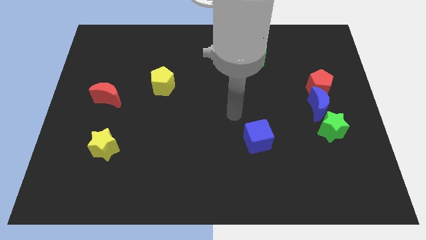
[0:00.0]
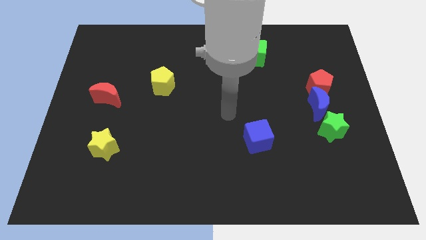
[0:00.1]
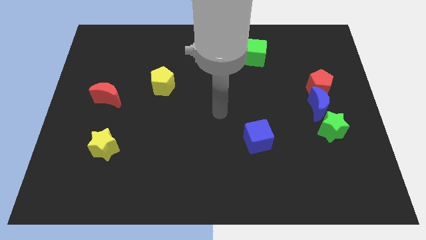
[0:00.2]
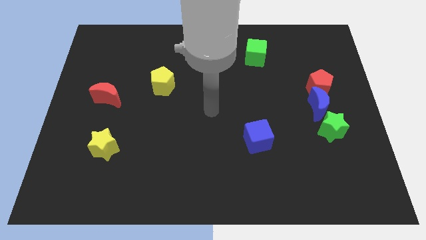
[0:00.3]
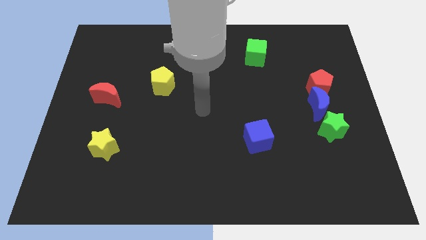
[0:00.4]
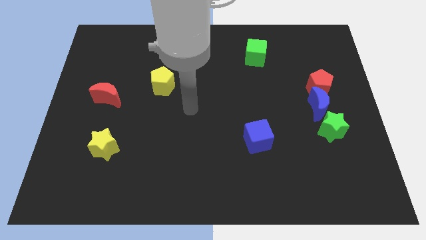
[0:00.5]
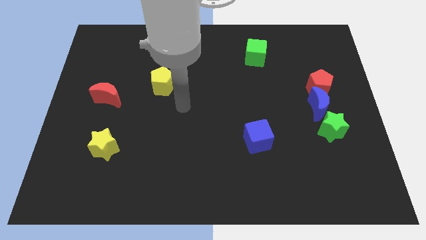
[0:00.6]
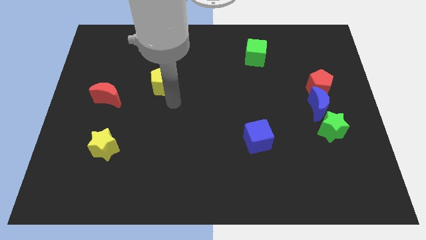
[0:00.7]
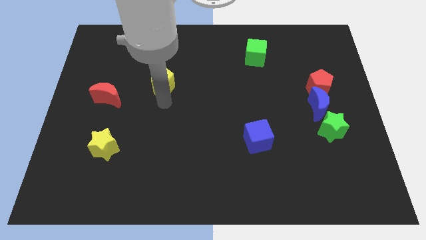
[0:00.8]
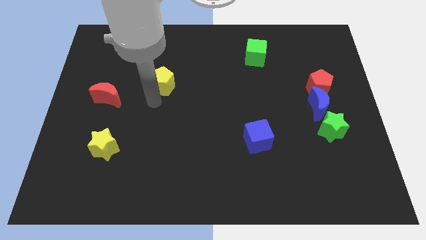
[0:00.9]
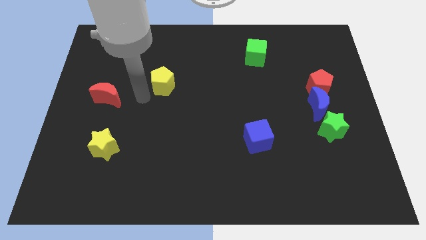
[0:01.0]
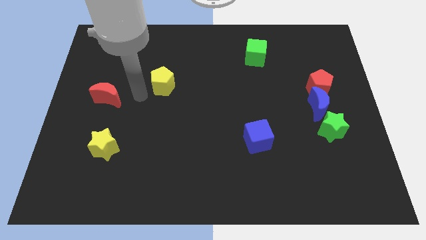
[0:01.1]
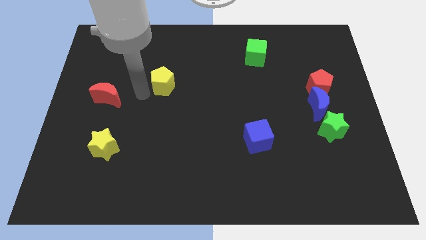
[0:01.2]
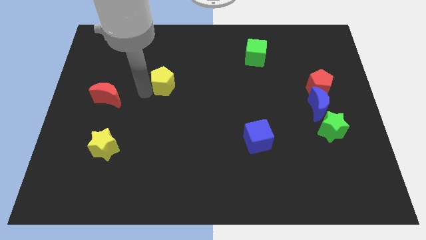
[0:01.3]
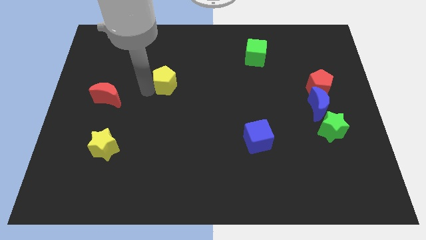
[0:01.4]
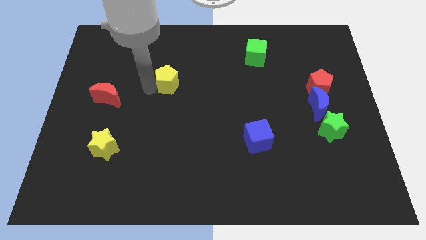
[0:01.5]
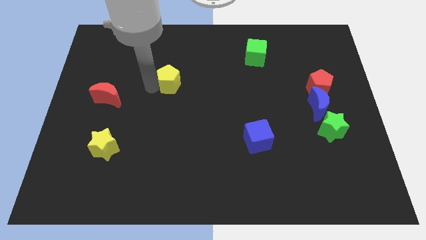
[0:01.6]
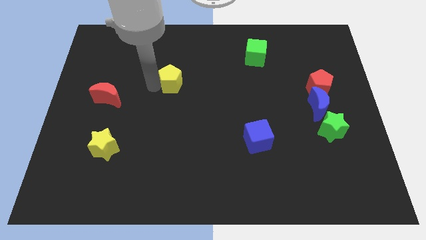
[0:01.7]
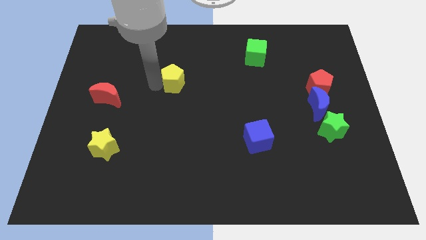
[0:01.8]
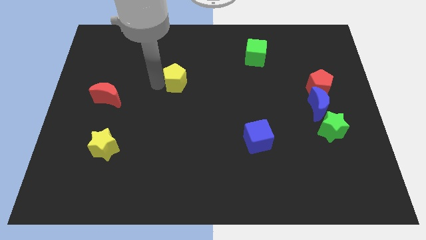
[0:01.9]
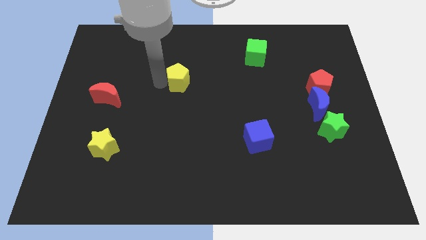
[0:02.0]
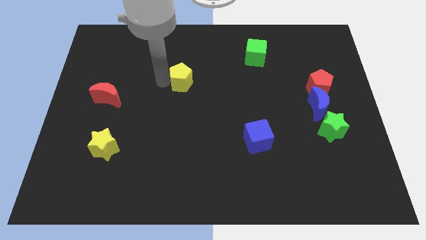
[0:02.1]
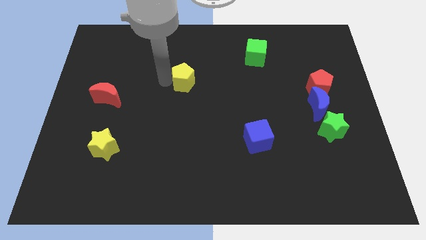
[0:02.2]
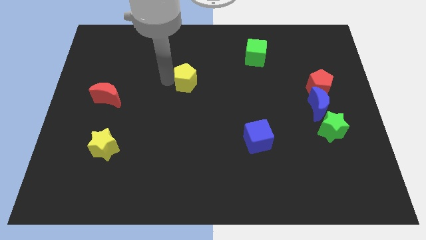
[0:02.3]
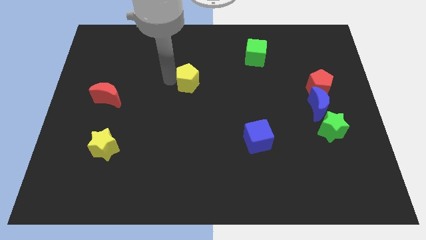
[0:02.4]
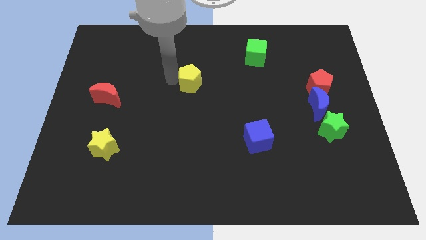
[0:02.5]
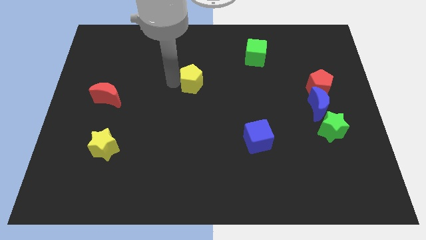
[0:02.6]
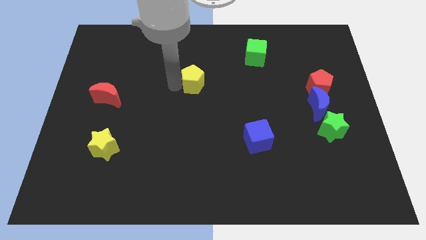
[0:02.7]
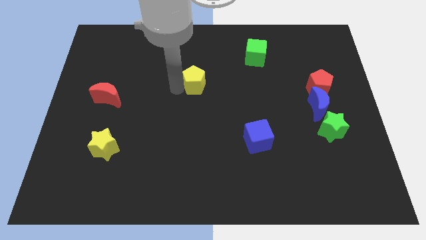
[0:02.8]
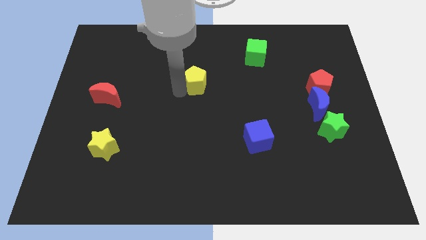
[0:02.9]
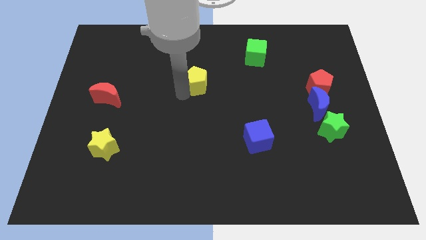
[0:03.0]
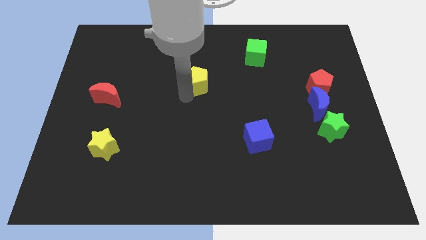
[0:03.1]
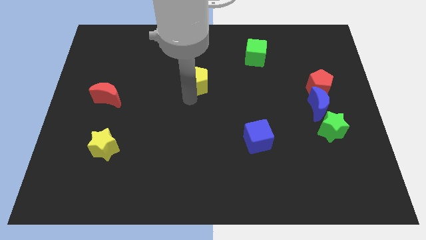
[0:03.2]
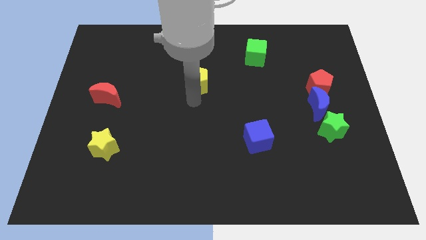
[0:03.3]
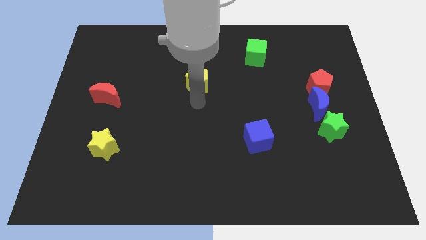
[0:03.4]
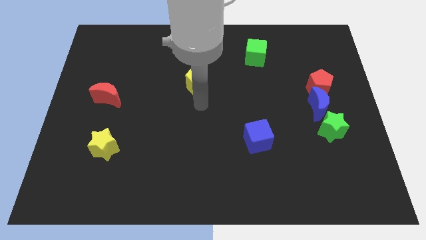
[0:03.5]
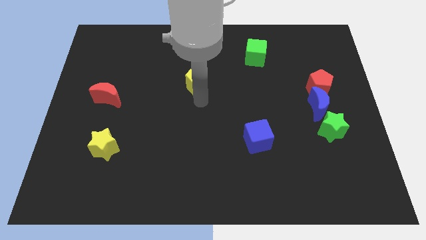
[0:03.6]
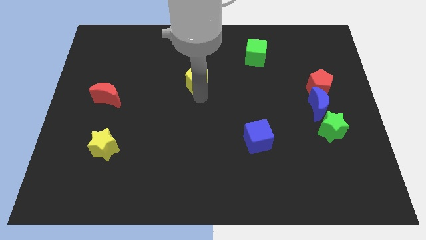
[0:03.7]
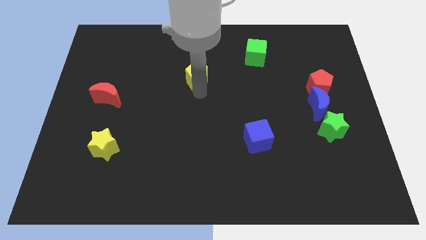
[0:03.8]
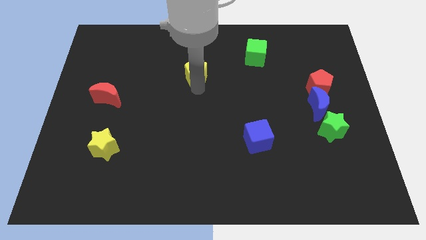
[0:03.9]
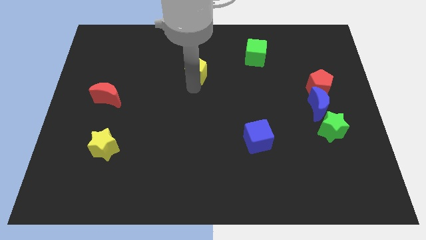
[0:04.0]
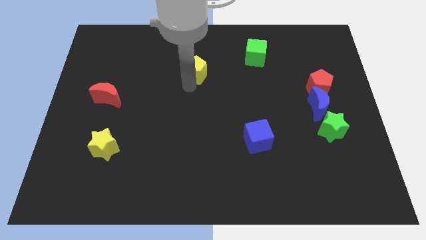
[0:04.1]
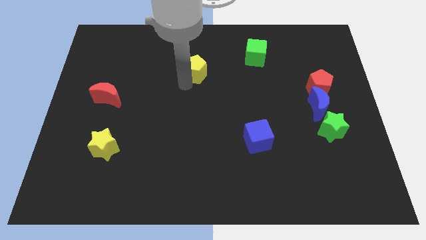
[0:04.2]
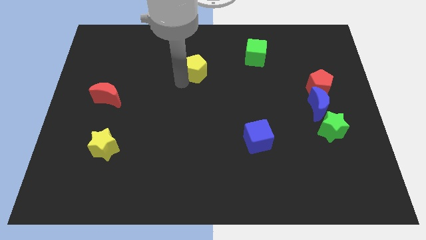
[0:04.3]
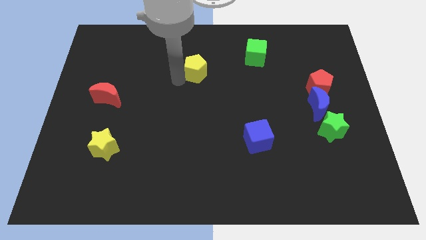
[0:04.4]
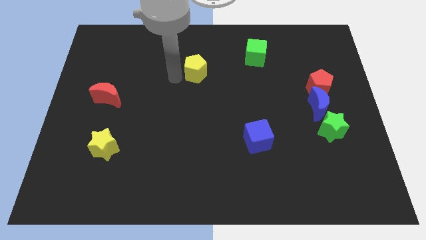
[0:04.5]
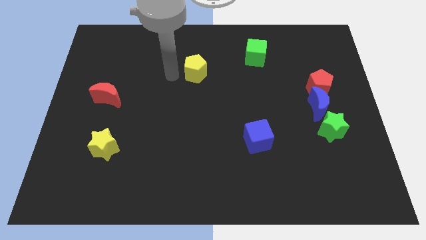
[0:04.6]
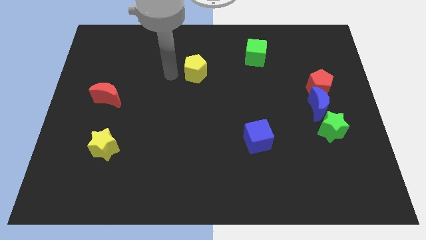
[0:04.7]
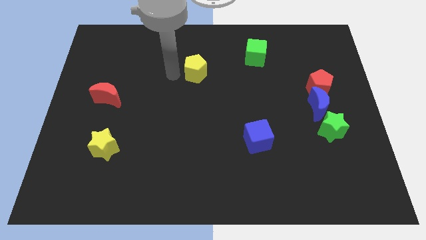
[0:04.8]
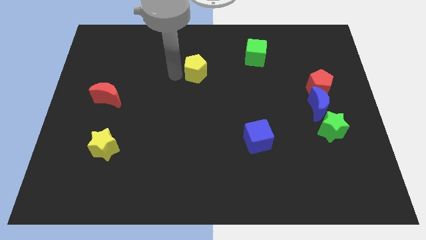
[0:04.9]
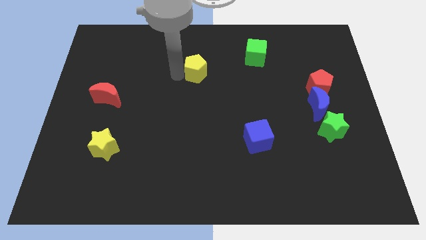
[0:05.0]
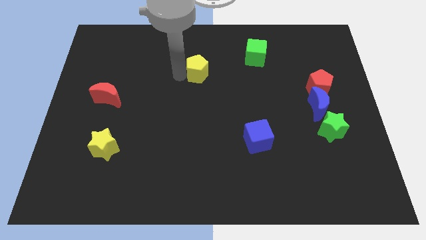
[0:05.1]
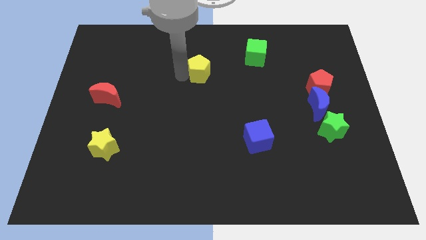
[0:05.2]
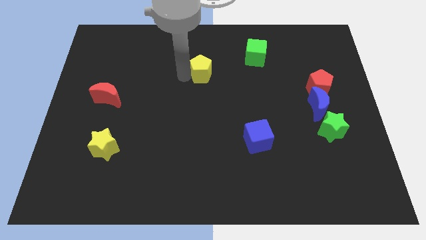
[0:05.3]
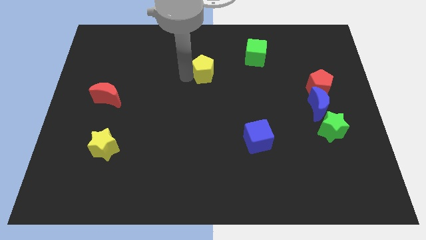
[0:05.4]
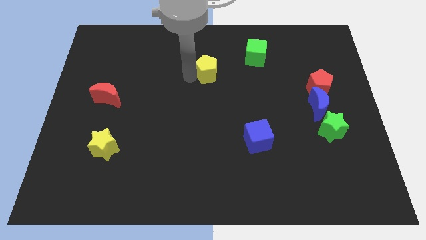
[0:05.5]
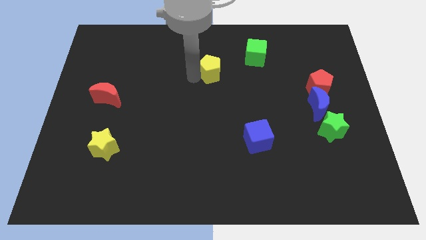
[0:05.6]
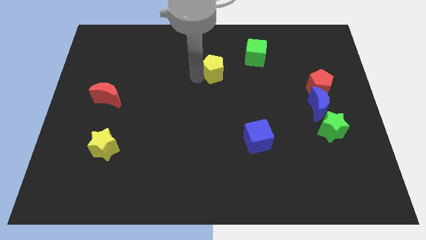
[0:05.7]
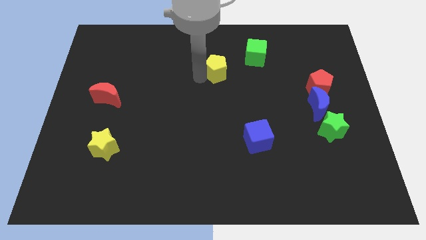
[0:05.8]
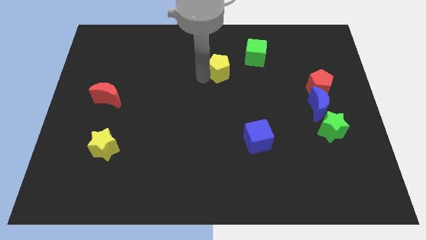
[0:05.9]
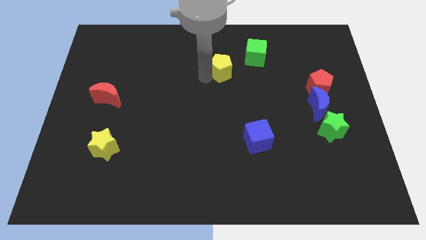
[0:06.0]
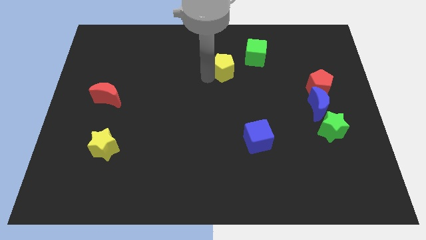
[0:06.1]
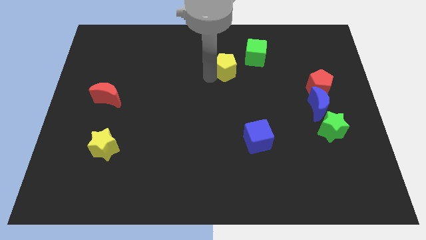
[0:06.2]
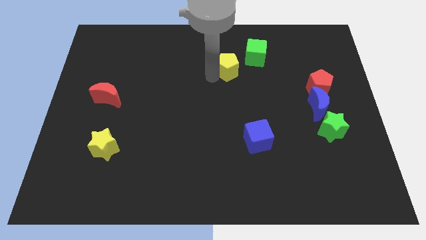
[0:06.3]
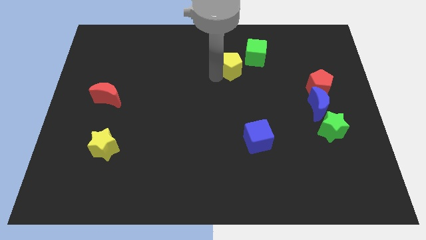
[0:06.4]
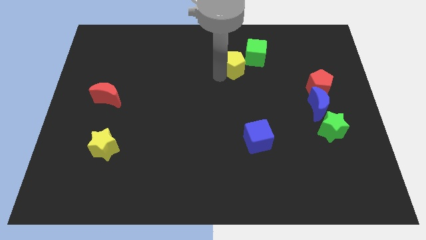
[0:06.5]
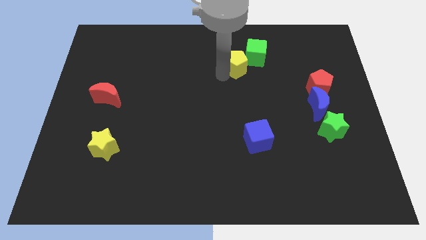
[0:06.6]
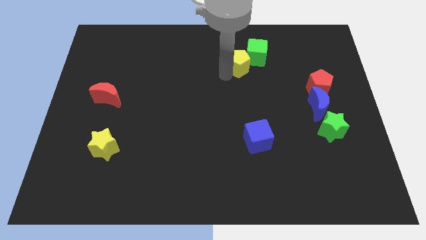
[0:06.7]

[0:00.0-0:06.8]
push the yellow pentagon close to the green cube
